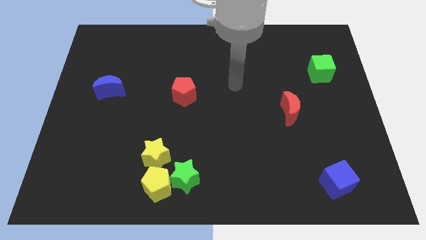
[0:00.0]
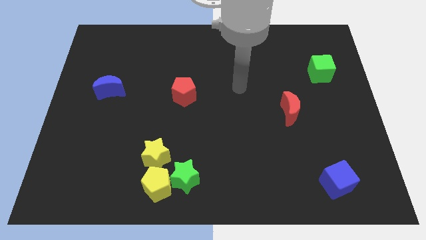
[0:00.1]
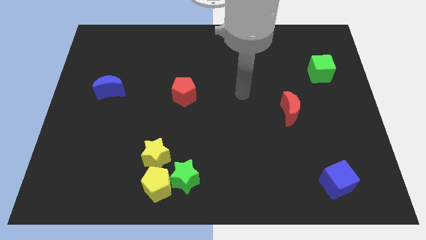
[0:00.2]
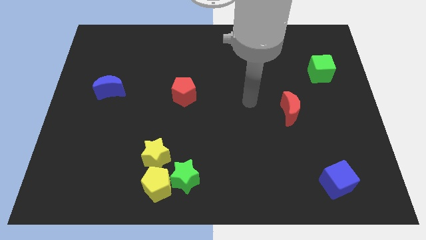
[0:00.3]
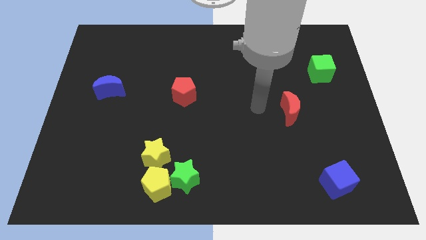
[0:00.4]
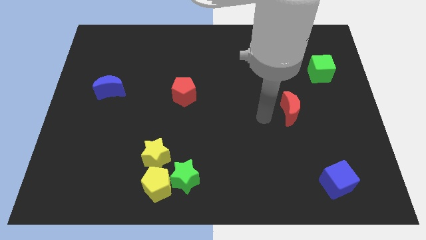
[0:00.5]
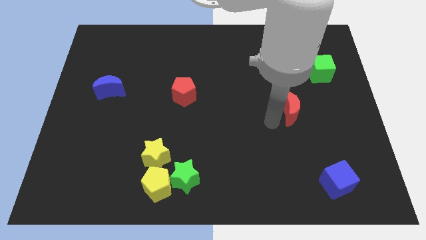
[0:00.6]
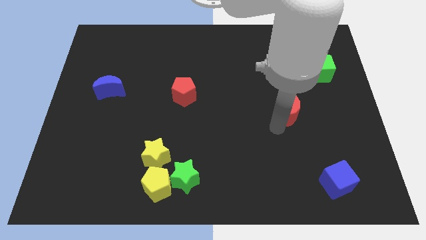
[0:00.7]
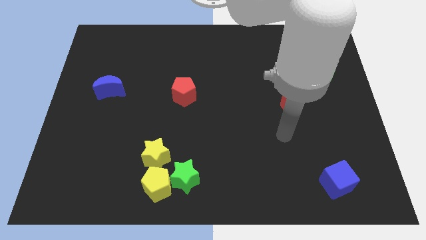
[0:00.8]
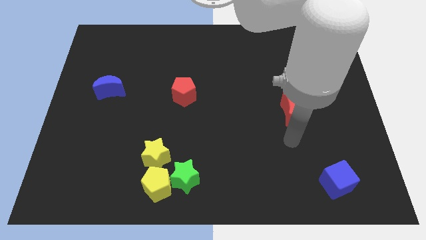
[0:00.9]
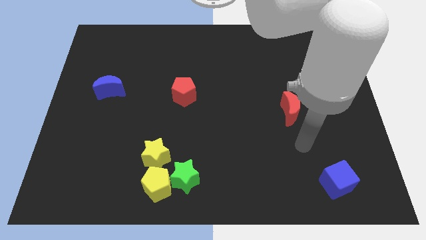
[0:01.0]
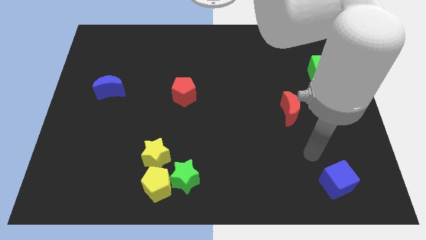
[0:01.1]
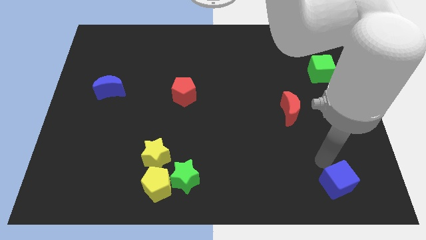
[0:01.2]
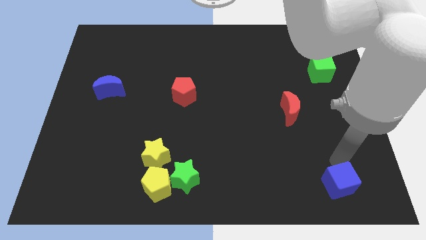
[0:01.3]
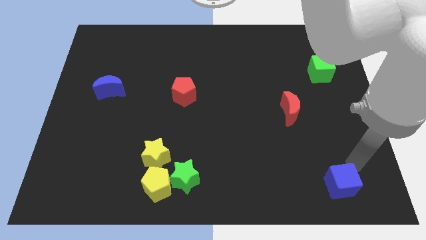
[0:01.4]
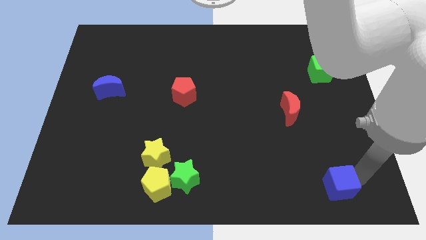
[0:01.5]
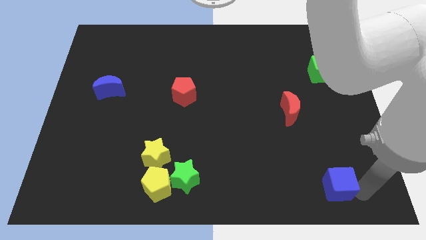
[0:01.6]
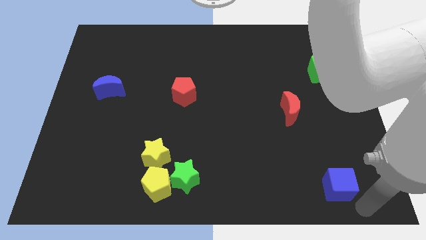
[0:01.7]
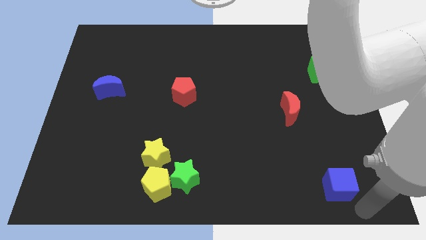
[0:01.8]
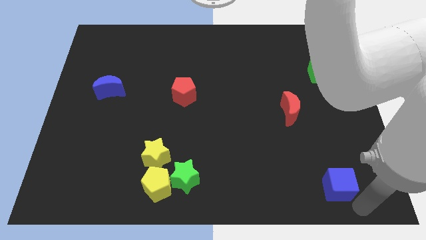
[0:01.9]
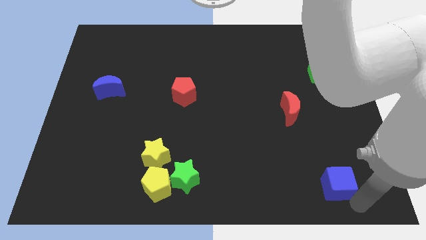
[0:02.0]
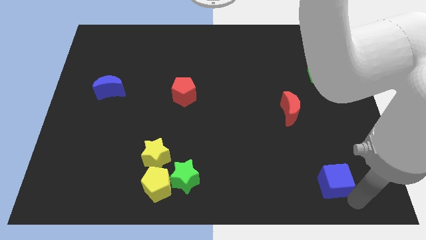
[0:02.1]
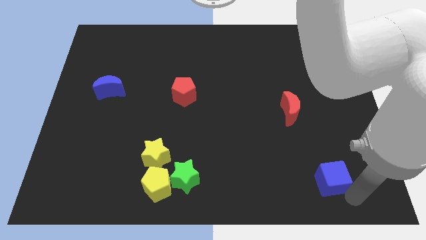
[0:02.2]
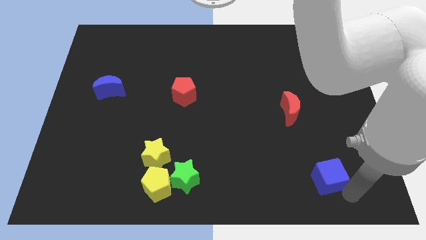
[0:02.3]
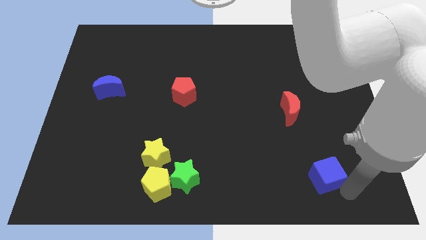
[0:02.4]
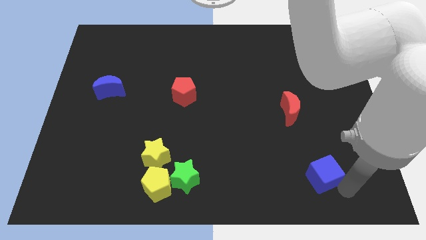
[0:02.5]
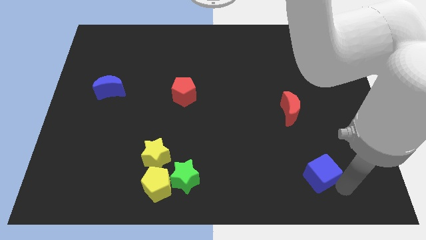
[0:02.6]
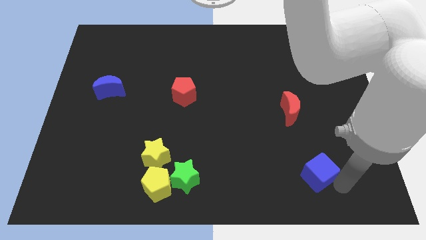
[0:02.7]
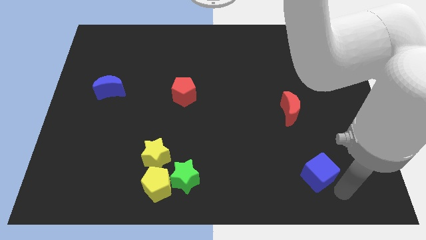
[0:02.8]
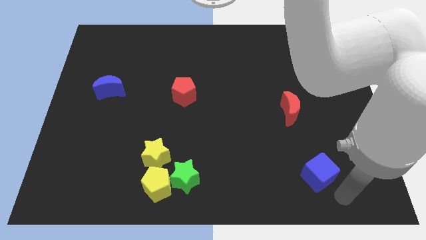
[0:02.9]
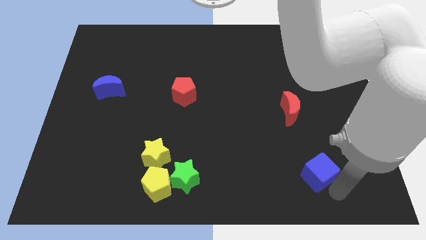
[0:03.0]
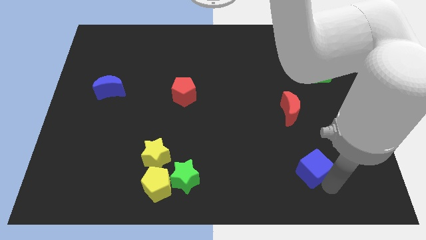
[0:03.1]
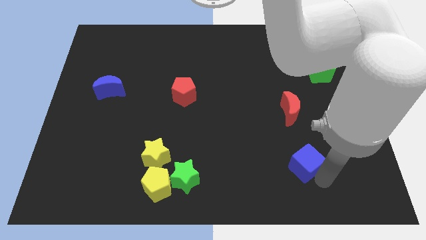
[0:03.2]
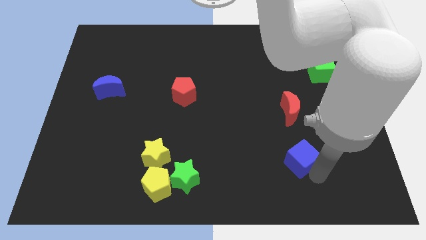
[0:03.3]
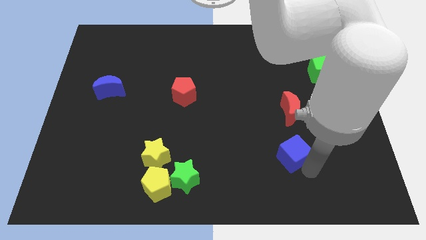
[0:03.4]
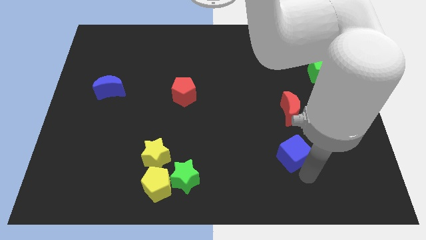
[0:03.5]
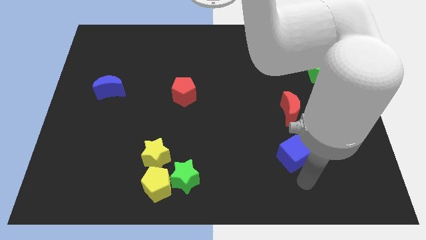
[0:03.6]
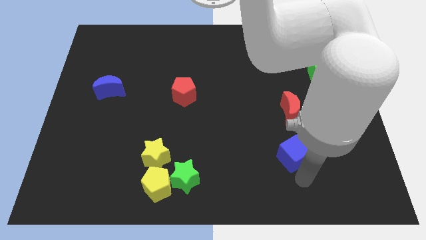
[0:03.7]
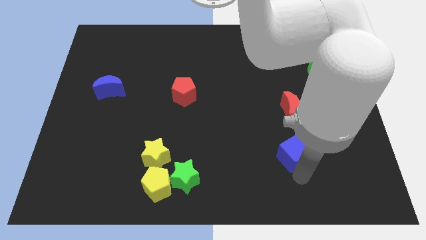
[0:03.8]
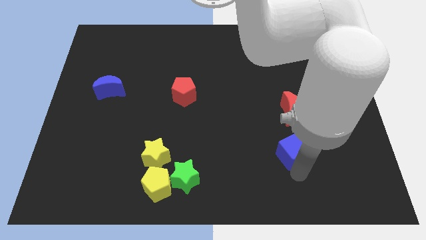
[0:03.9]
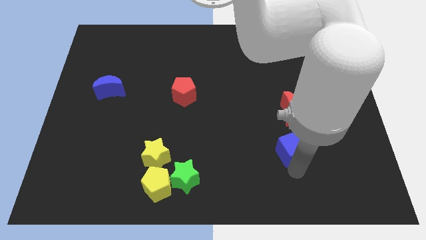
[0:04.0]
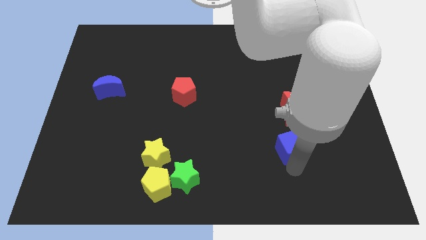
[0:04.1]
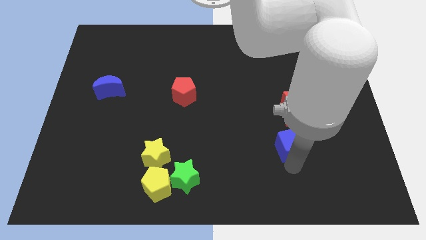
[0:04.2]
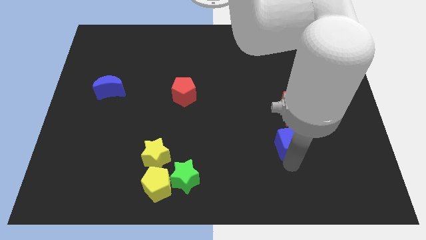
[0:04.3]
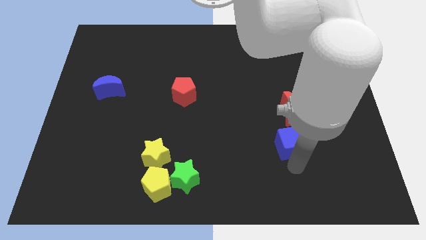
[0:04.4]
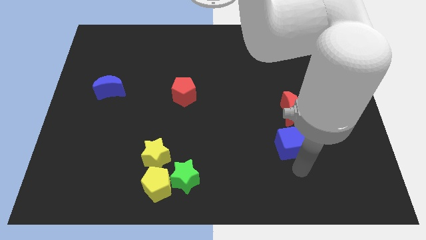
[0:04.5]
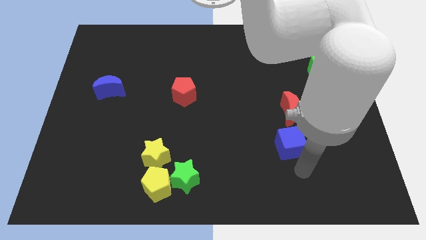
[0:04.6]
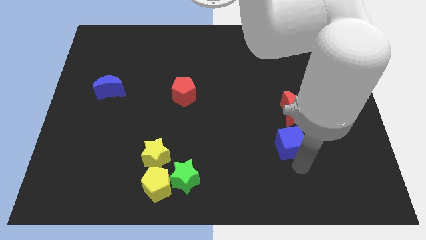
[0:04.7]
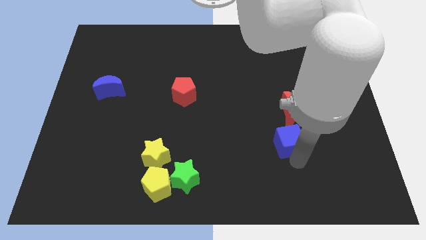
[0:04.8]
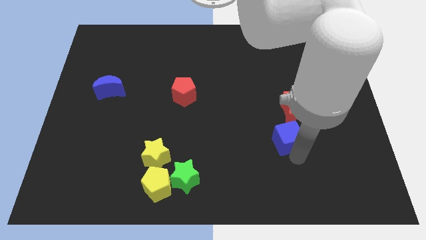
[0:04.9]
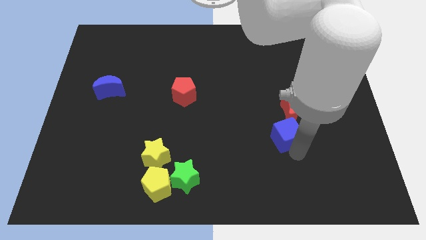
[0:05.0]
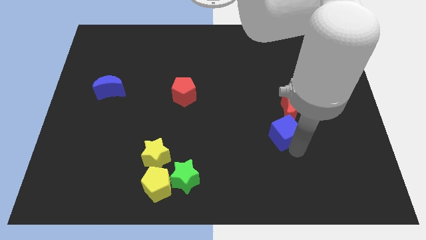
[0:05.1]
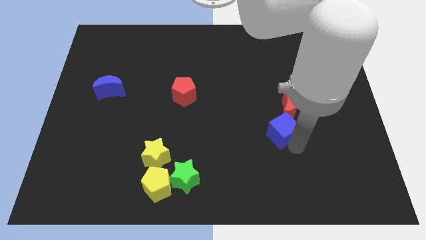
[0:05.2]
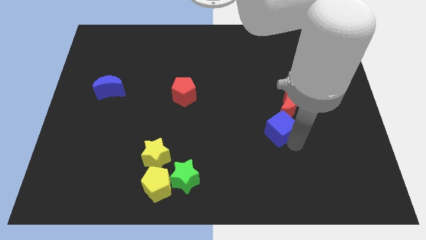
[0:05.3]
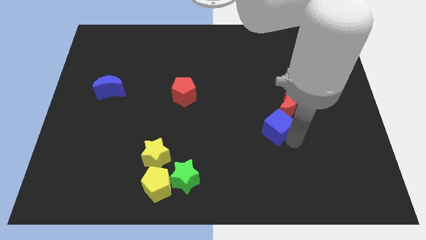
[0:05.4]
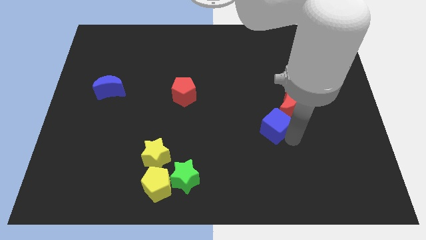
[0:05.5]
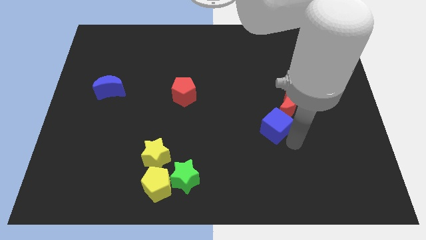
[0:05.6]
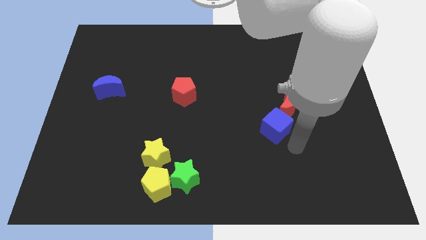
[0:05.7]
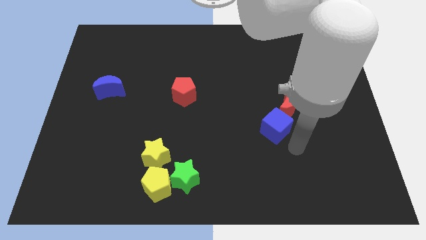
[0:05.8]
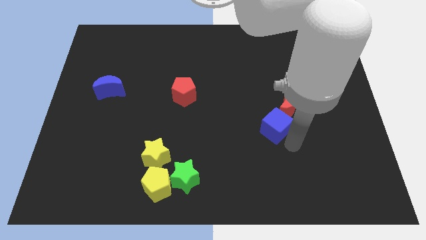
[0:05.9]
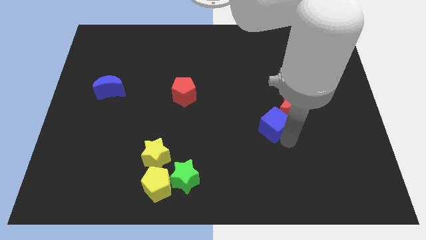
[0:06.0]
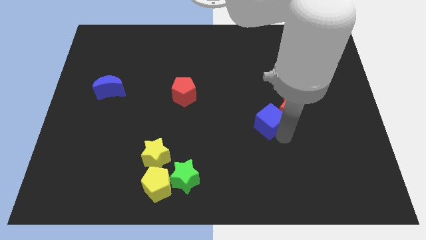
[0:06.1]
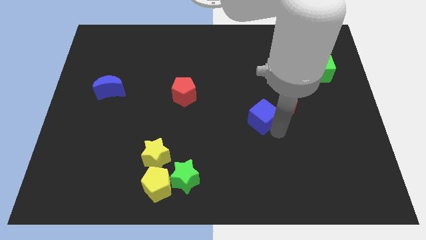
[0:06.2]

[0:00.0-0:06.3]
move the blue cube up and left

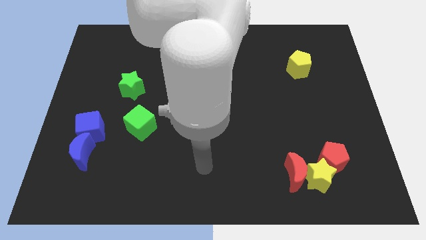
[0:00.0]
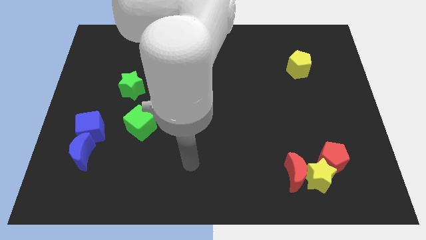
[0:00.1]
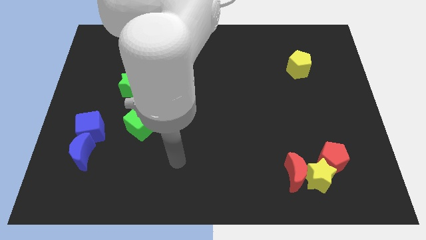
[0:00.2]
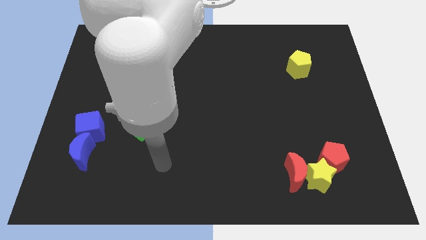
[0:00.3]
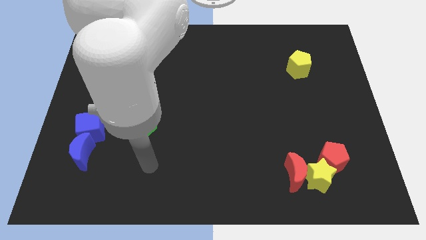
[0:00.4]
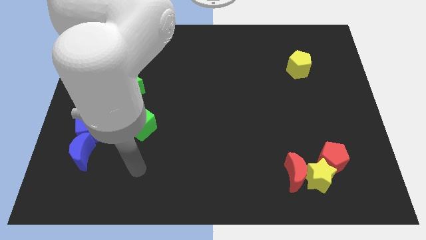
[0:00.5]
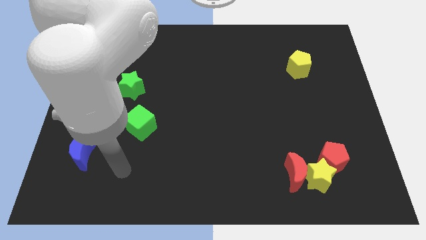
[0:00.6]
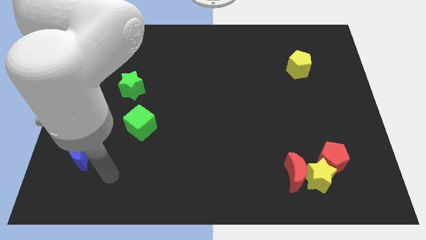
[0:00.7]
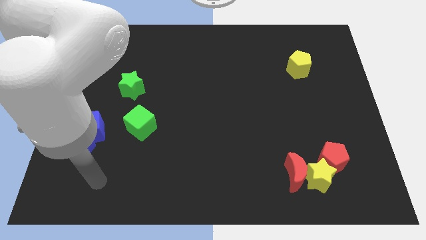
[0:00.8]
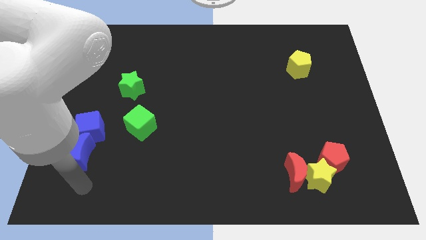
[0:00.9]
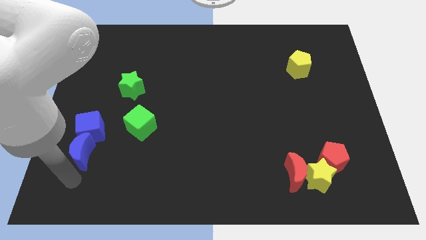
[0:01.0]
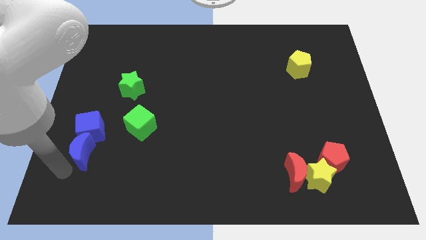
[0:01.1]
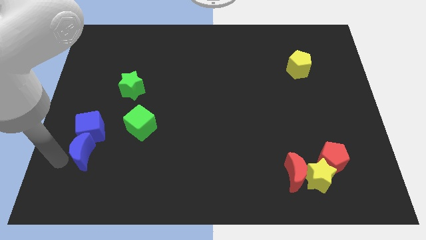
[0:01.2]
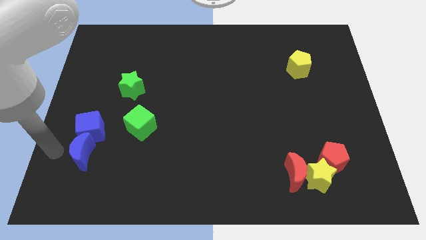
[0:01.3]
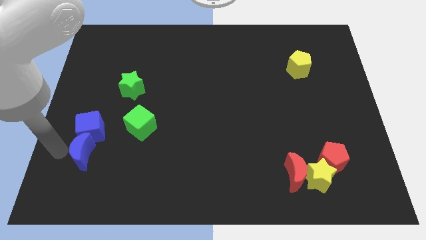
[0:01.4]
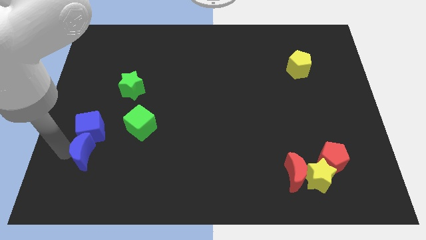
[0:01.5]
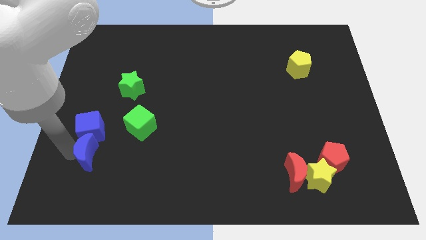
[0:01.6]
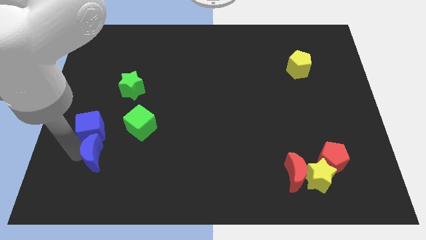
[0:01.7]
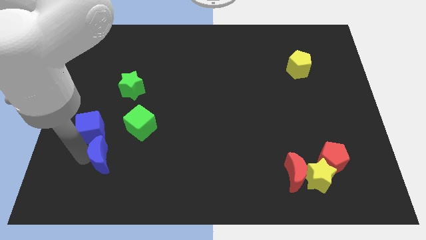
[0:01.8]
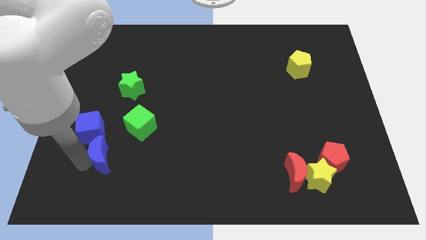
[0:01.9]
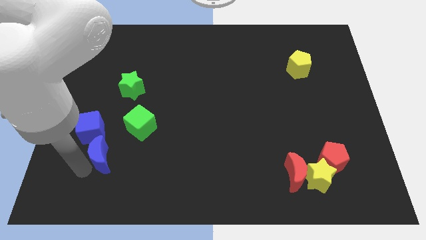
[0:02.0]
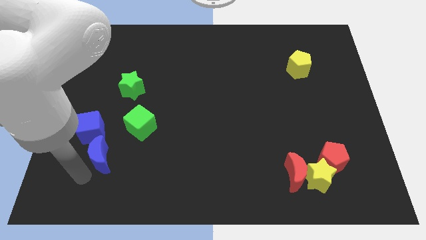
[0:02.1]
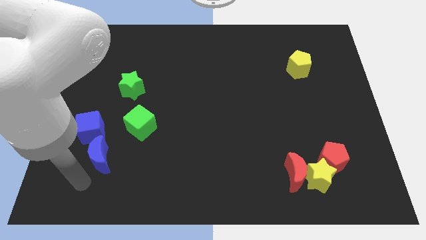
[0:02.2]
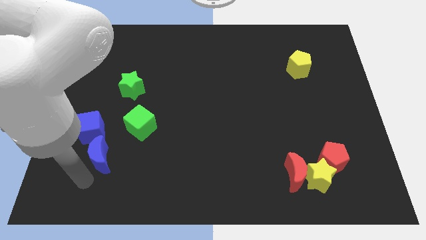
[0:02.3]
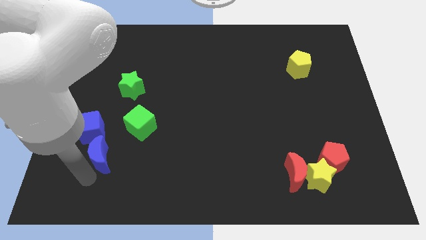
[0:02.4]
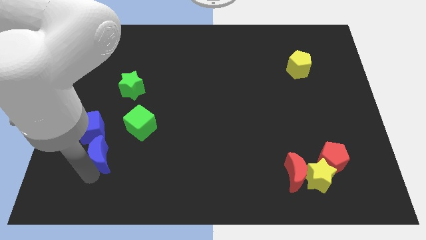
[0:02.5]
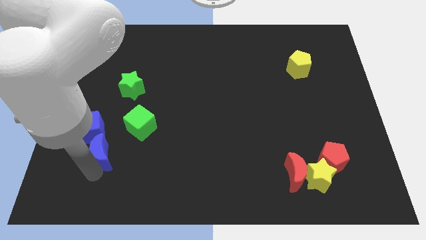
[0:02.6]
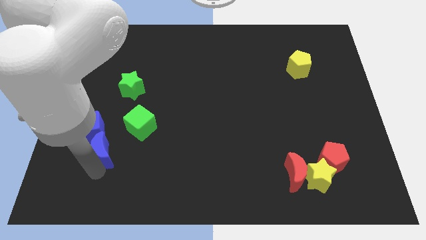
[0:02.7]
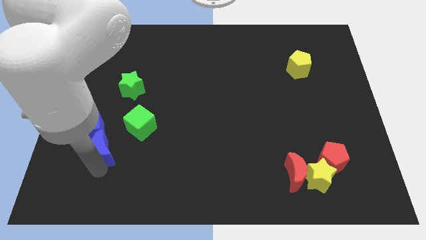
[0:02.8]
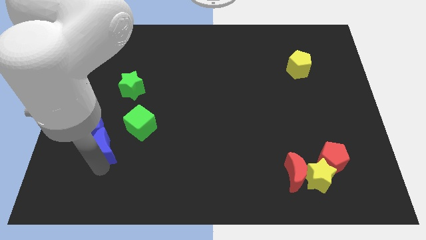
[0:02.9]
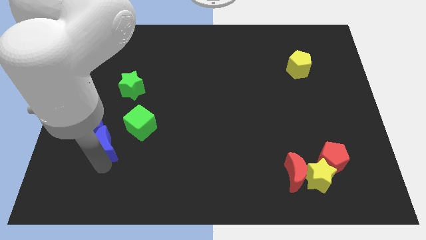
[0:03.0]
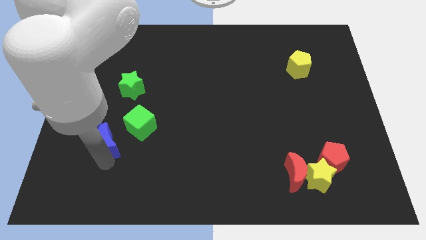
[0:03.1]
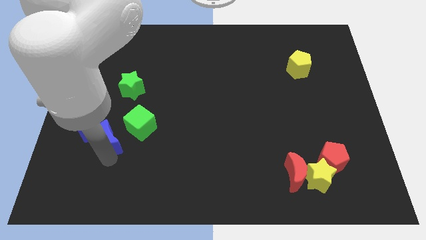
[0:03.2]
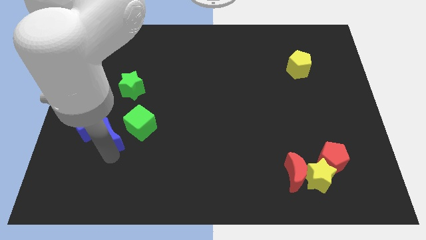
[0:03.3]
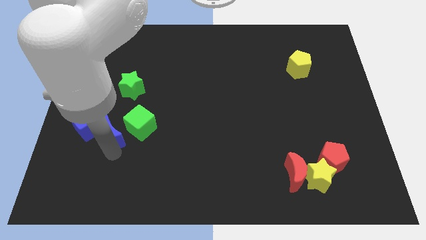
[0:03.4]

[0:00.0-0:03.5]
slightly move the blue moon up and right
